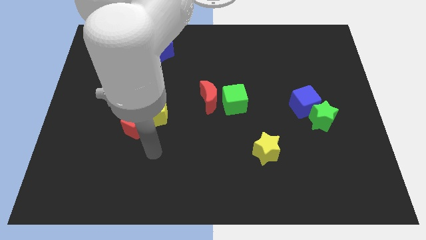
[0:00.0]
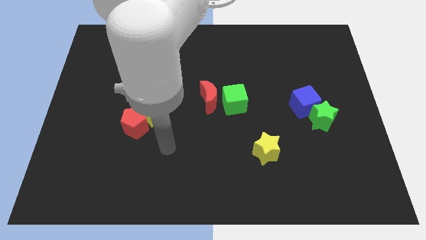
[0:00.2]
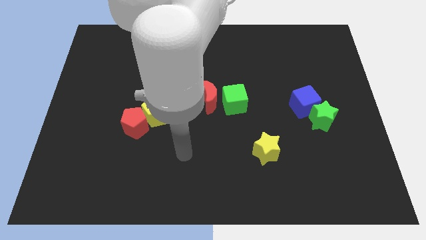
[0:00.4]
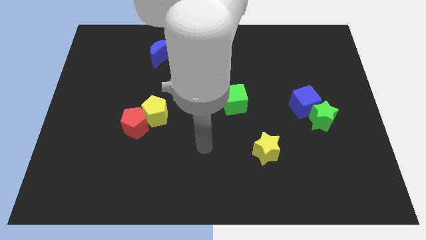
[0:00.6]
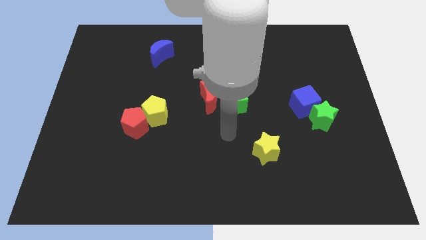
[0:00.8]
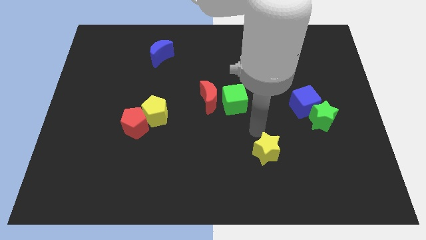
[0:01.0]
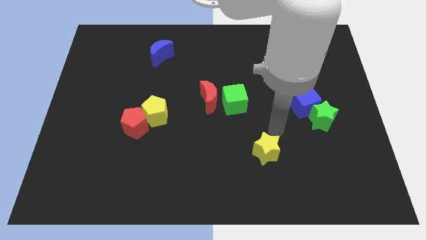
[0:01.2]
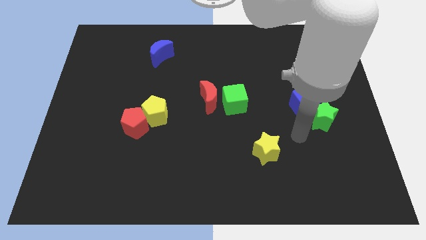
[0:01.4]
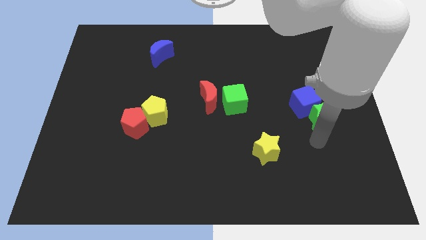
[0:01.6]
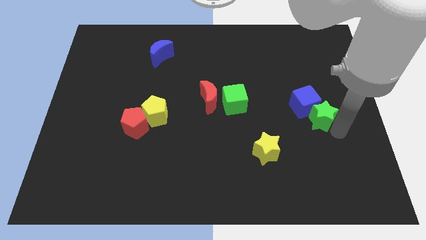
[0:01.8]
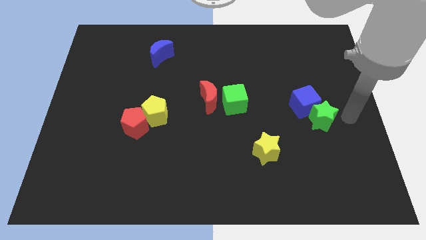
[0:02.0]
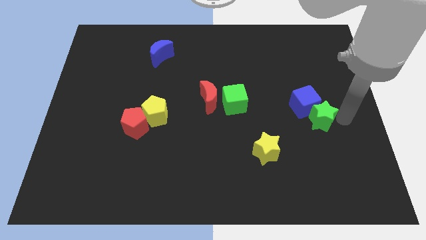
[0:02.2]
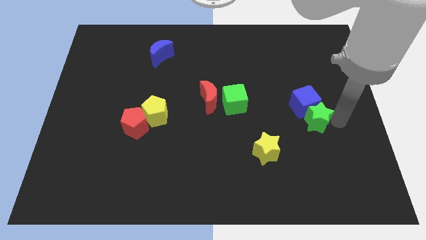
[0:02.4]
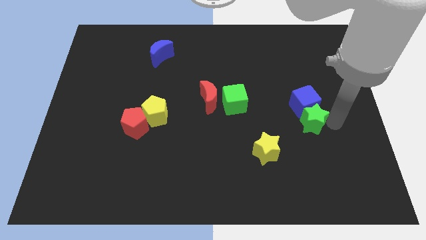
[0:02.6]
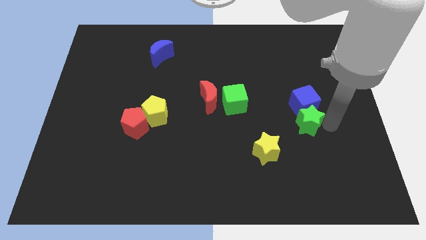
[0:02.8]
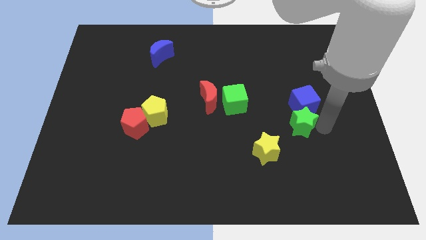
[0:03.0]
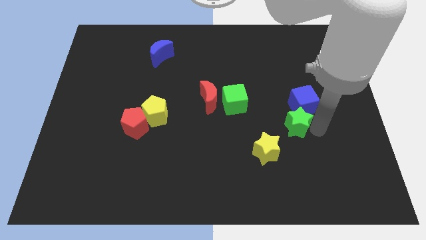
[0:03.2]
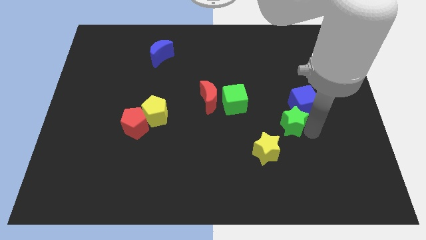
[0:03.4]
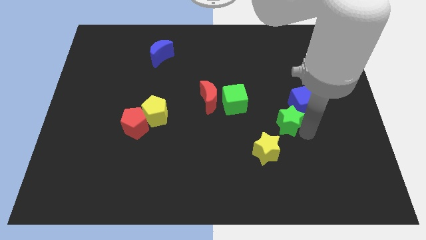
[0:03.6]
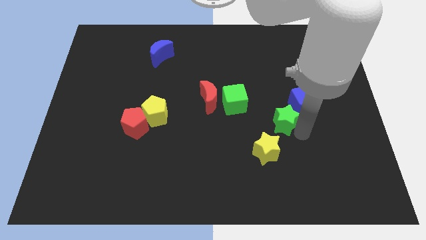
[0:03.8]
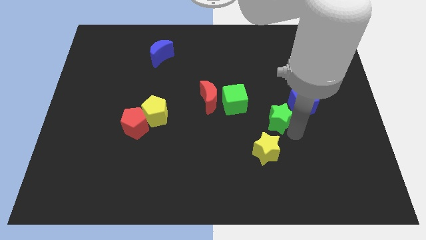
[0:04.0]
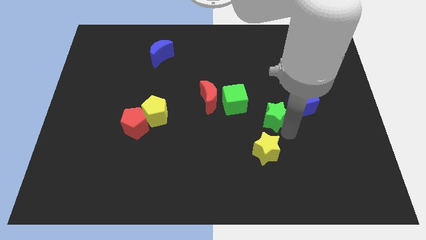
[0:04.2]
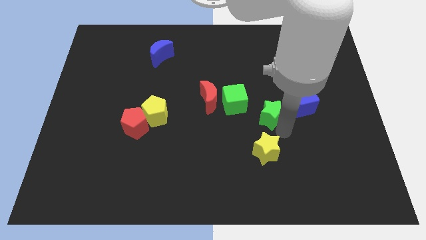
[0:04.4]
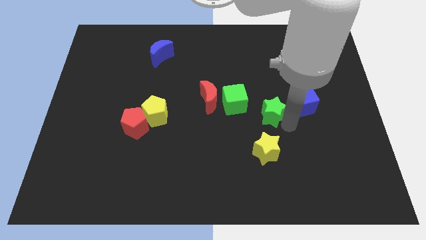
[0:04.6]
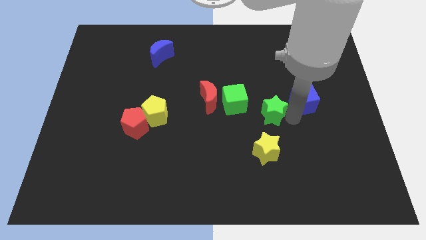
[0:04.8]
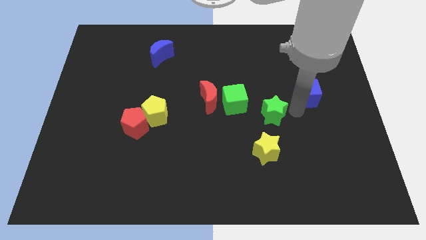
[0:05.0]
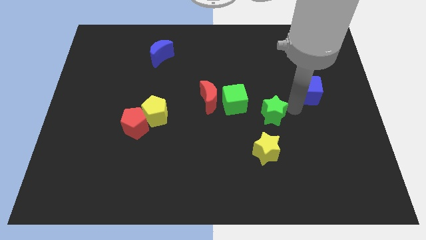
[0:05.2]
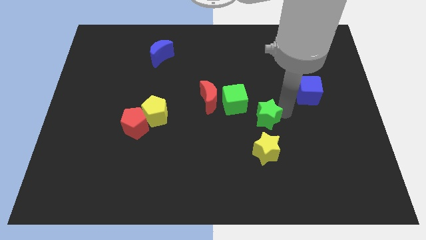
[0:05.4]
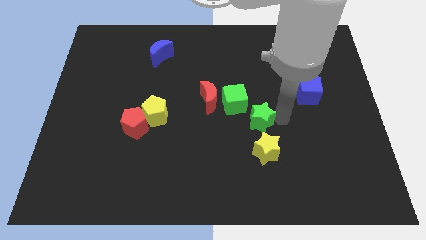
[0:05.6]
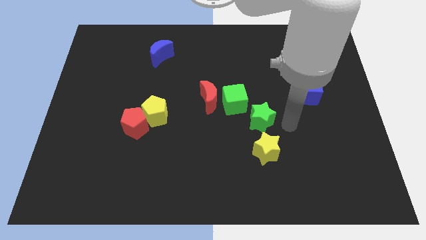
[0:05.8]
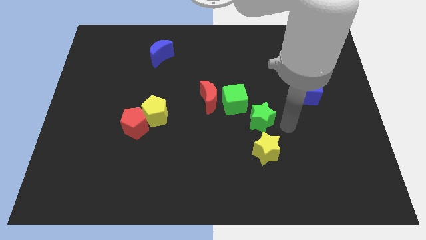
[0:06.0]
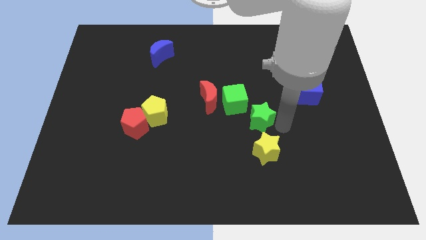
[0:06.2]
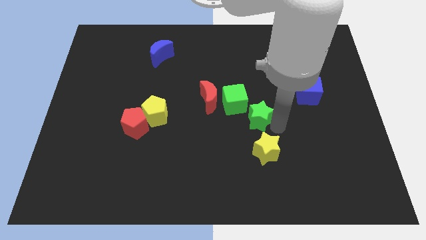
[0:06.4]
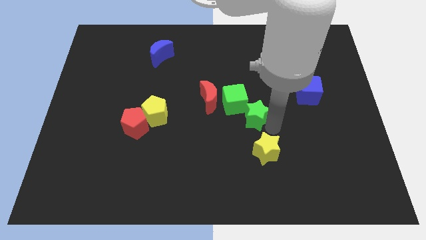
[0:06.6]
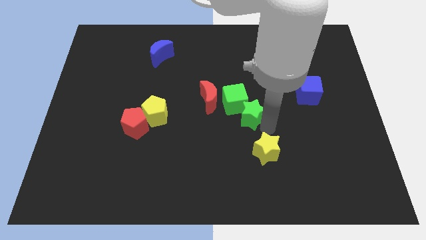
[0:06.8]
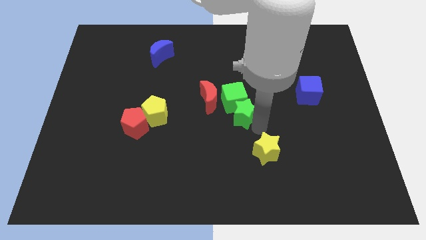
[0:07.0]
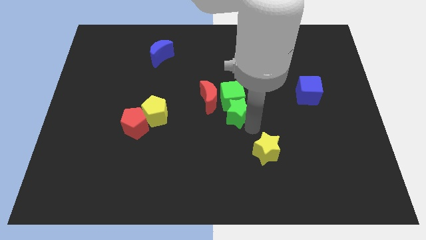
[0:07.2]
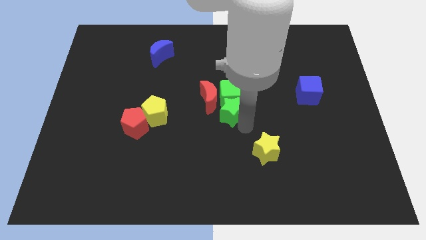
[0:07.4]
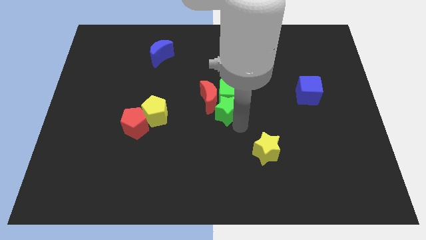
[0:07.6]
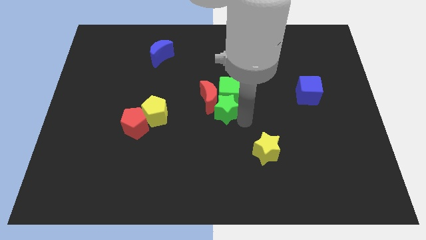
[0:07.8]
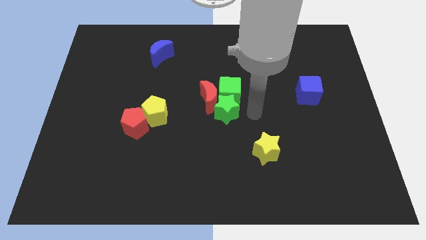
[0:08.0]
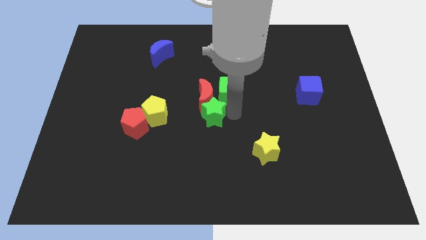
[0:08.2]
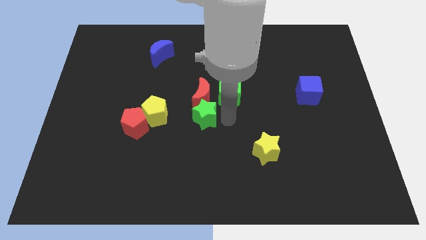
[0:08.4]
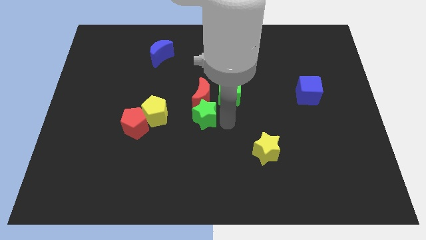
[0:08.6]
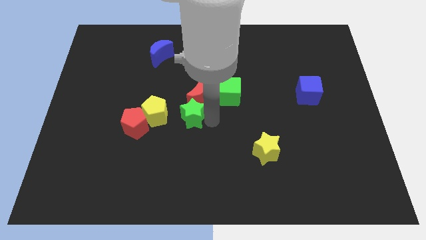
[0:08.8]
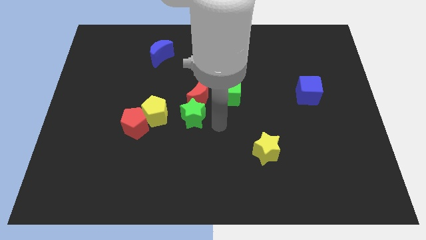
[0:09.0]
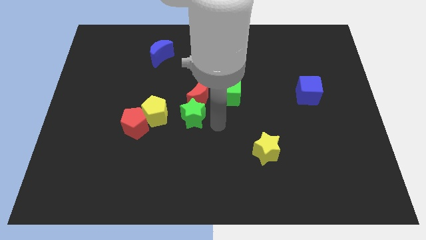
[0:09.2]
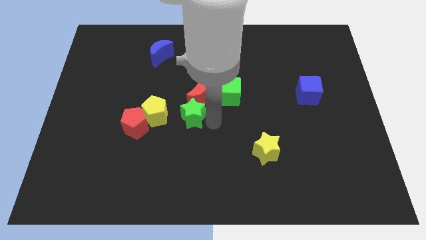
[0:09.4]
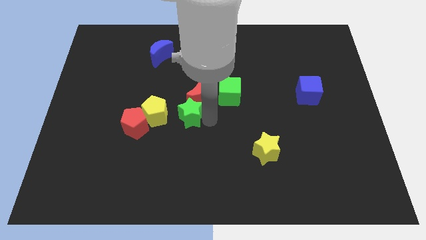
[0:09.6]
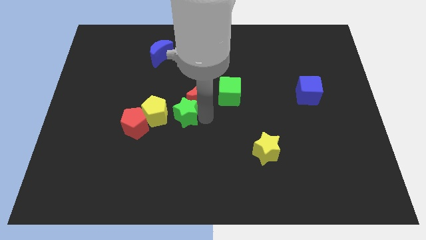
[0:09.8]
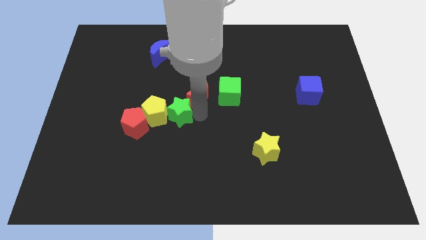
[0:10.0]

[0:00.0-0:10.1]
push the green star close to the yellow pentagon
